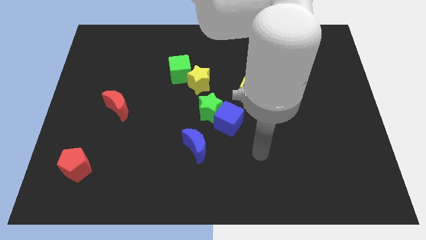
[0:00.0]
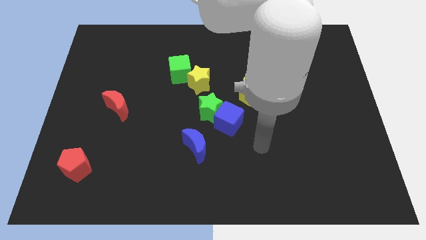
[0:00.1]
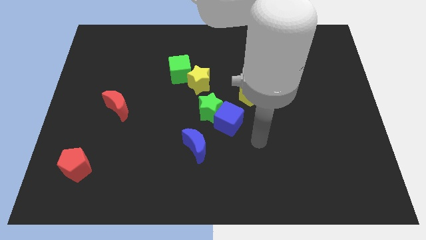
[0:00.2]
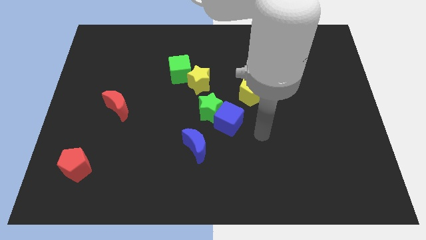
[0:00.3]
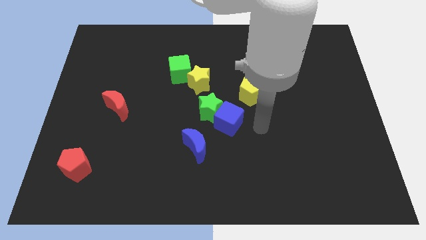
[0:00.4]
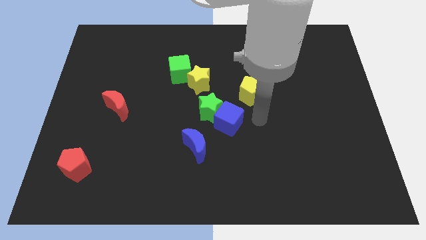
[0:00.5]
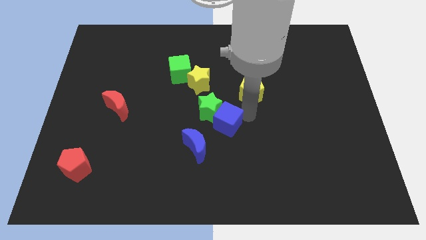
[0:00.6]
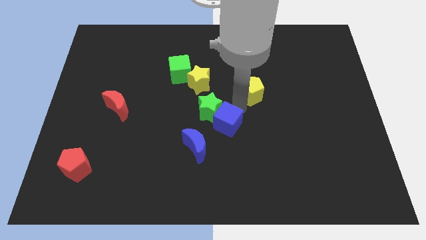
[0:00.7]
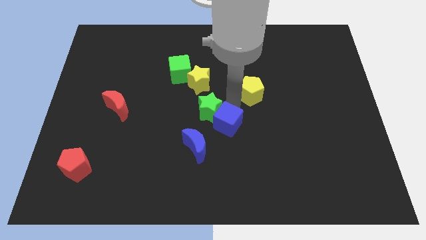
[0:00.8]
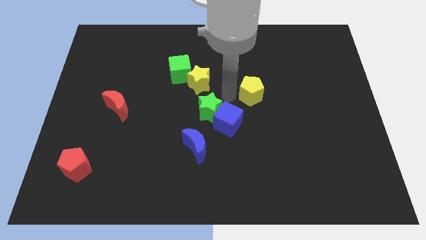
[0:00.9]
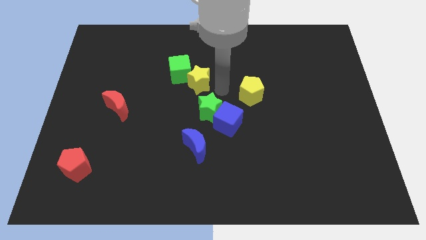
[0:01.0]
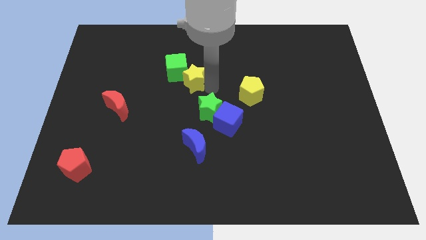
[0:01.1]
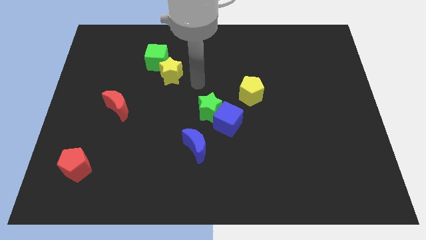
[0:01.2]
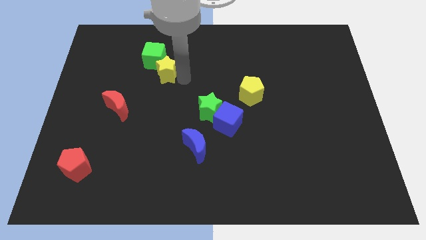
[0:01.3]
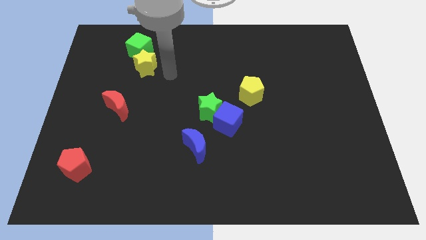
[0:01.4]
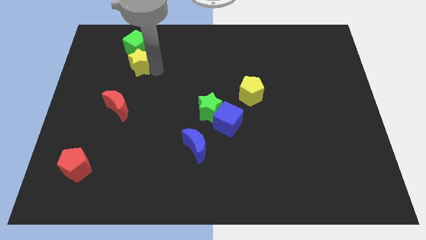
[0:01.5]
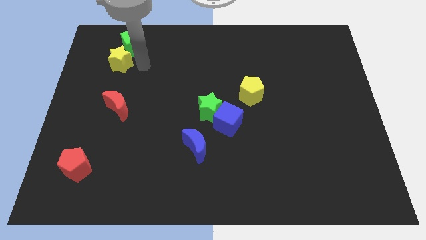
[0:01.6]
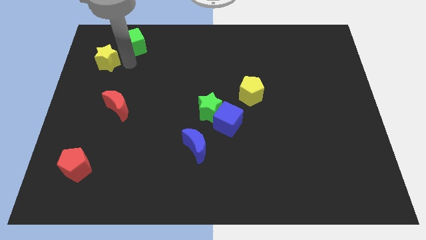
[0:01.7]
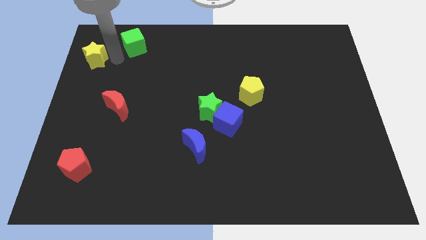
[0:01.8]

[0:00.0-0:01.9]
pull the green cube apart from the yellow star

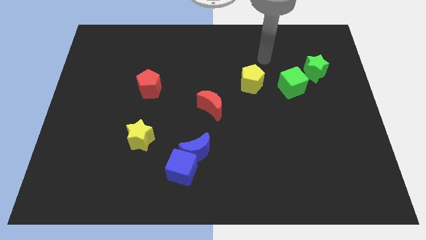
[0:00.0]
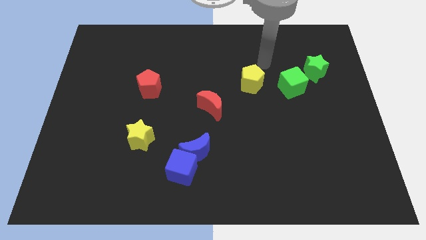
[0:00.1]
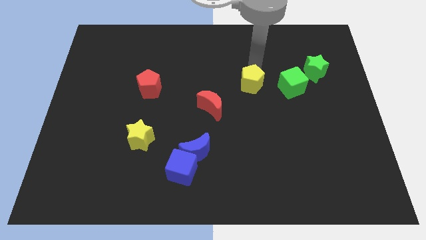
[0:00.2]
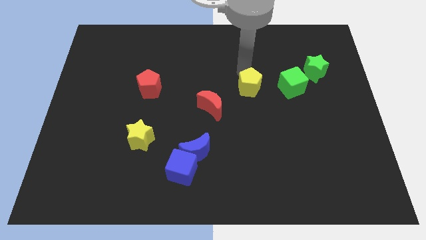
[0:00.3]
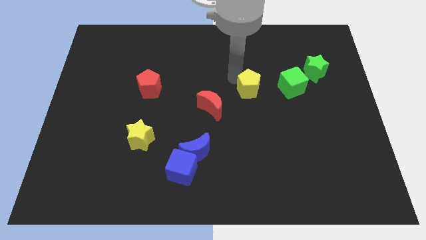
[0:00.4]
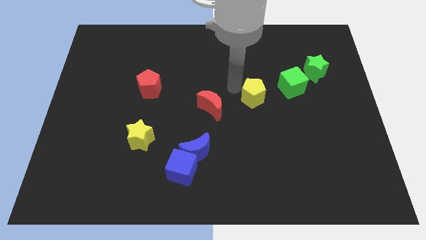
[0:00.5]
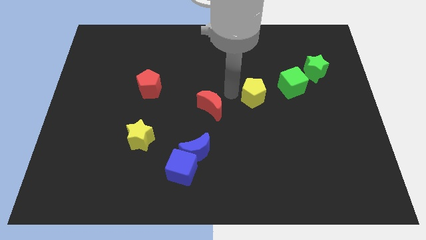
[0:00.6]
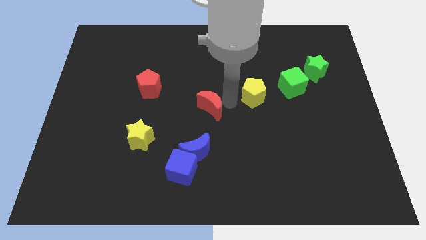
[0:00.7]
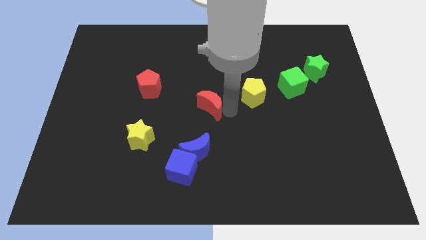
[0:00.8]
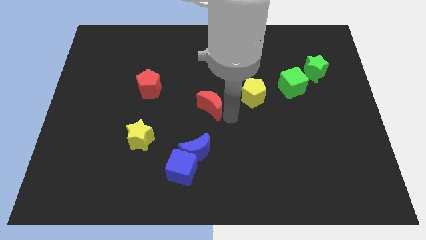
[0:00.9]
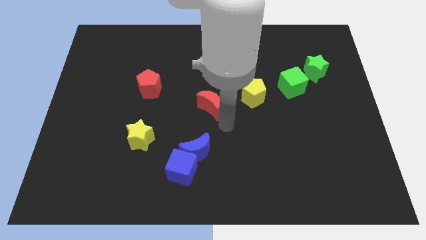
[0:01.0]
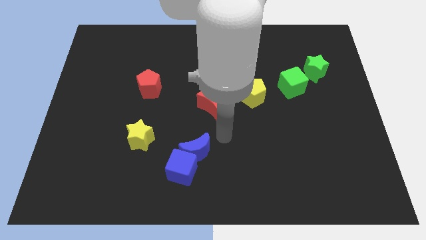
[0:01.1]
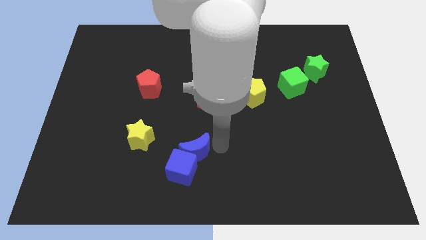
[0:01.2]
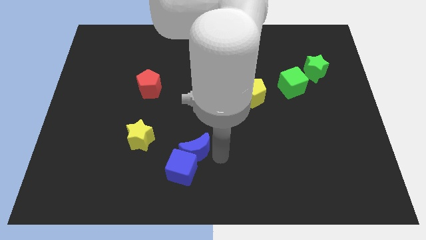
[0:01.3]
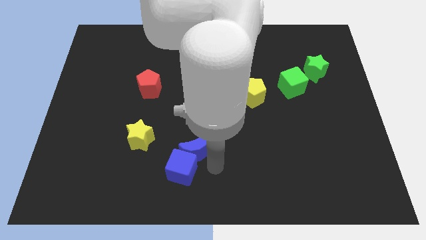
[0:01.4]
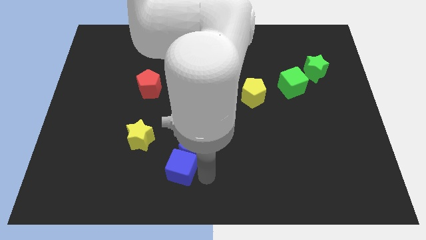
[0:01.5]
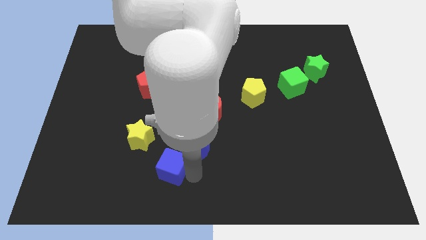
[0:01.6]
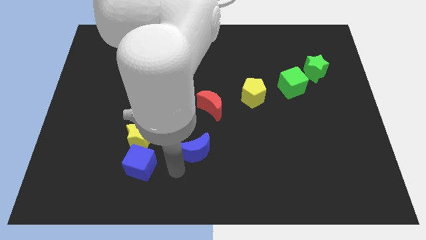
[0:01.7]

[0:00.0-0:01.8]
move the blue moon away from the blue cube

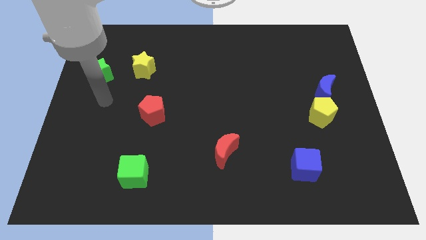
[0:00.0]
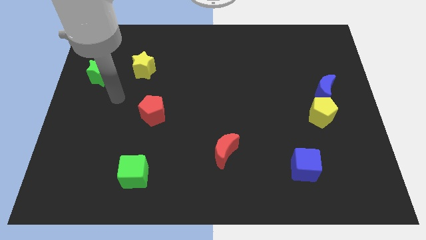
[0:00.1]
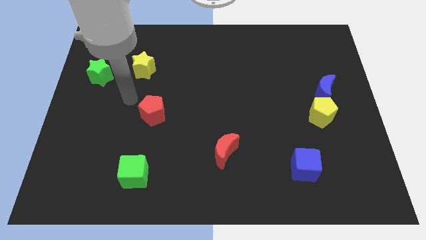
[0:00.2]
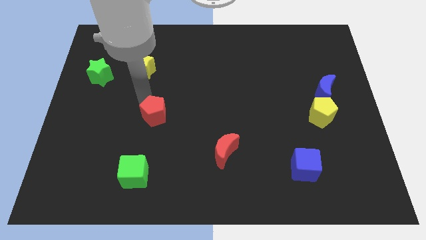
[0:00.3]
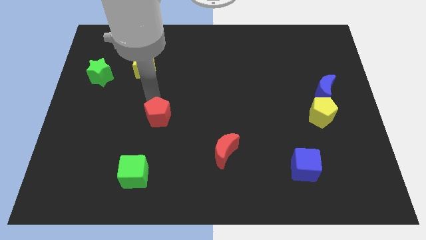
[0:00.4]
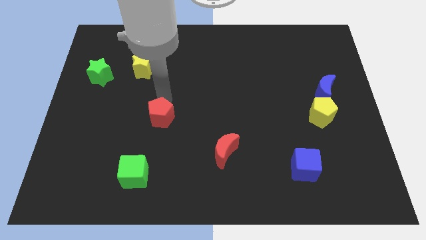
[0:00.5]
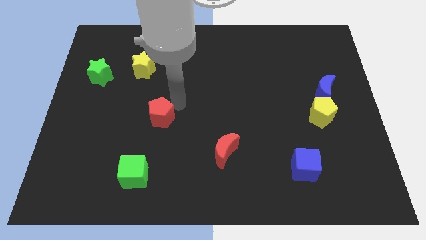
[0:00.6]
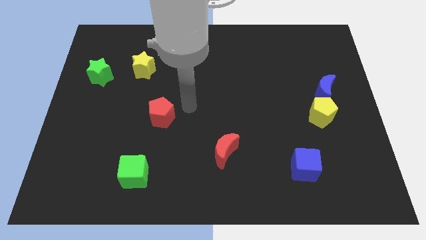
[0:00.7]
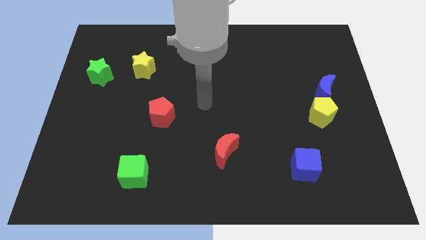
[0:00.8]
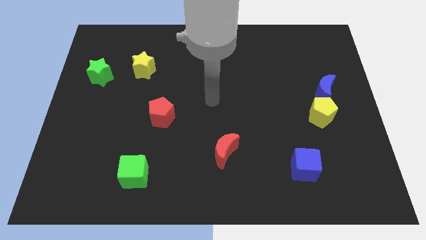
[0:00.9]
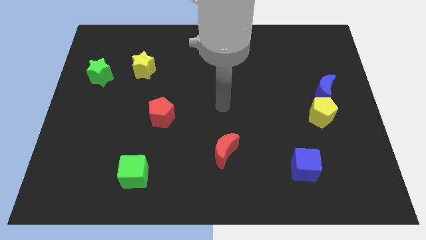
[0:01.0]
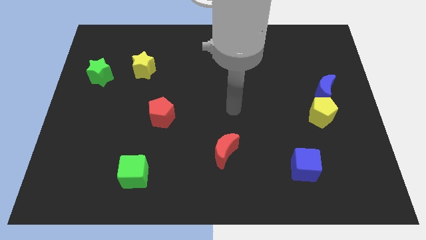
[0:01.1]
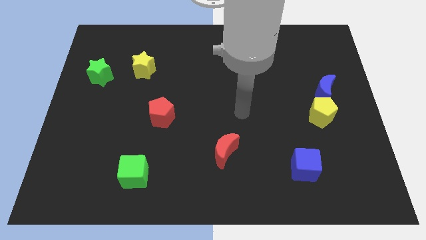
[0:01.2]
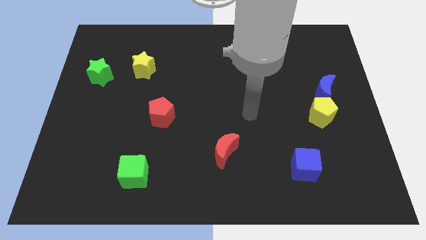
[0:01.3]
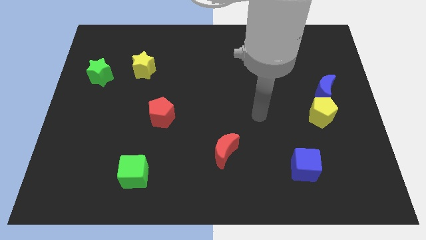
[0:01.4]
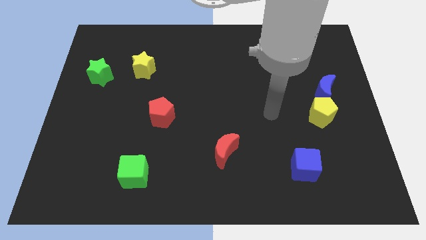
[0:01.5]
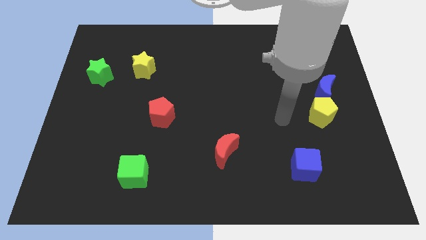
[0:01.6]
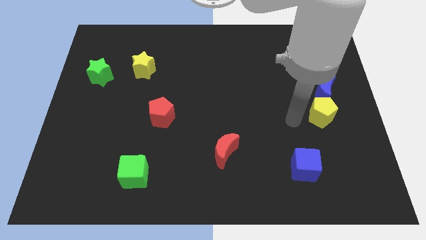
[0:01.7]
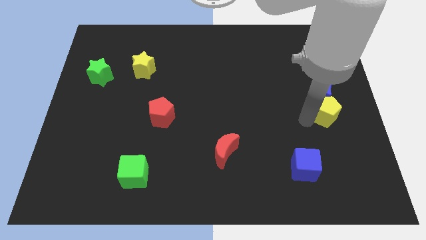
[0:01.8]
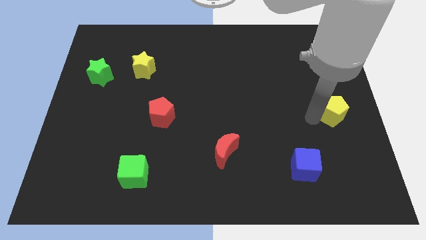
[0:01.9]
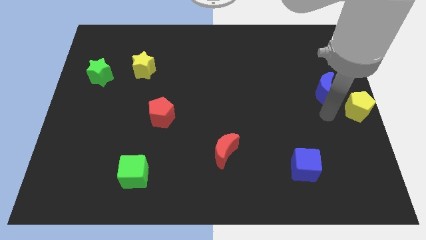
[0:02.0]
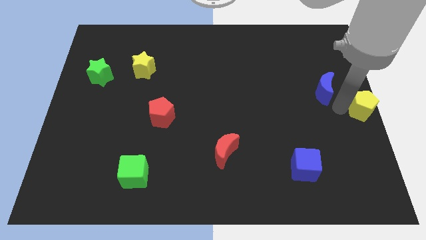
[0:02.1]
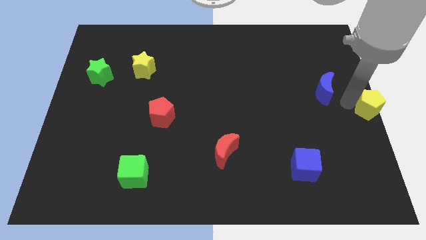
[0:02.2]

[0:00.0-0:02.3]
pull the blue moon apart from the yellow pentagon

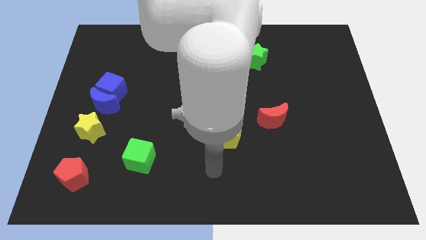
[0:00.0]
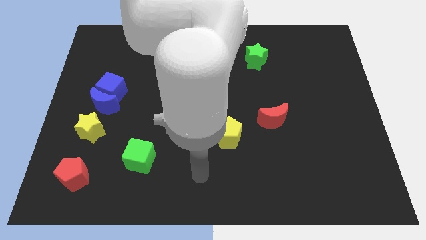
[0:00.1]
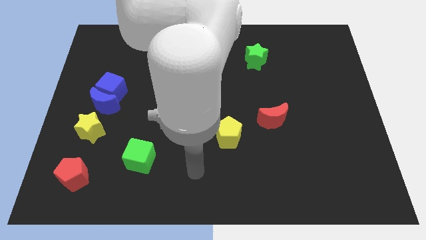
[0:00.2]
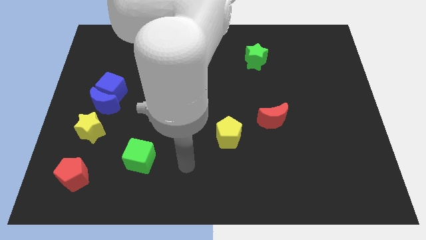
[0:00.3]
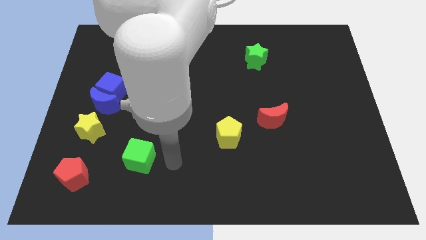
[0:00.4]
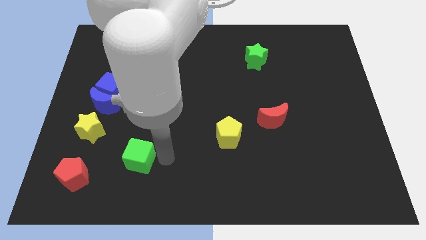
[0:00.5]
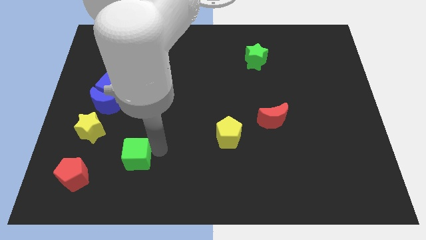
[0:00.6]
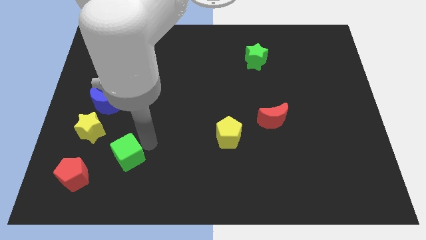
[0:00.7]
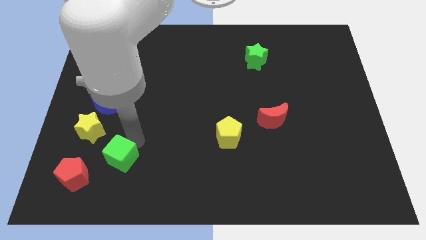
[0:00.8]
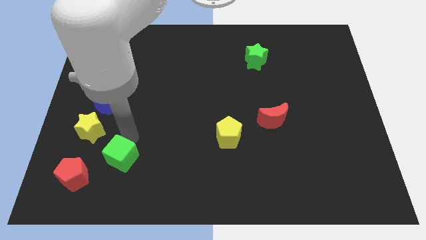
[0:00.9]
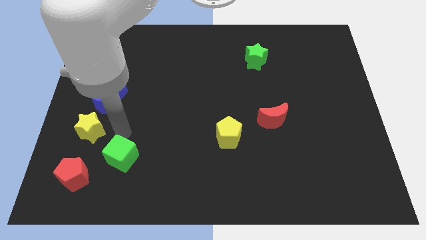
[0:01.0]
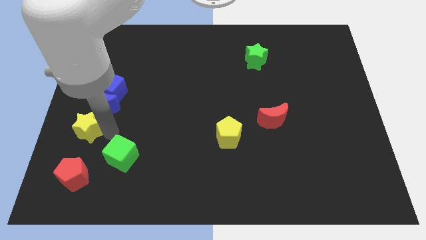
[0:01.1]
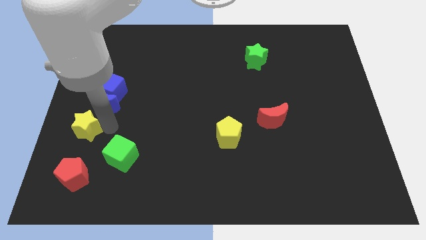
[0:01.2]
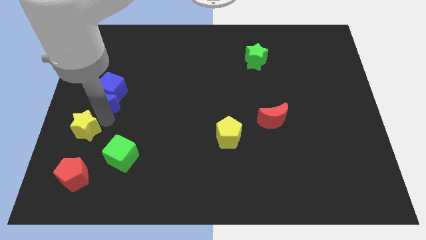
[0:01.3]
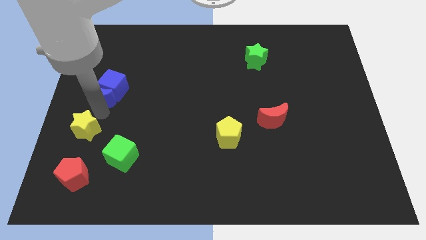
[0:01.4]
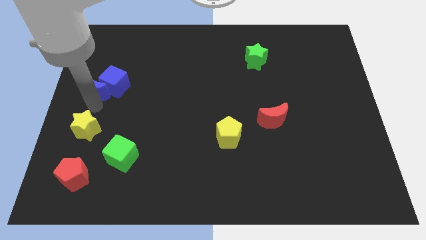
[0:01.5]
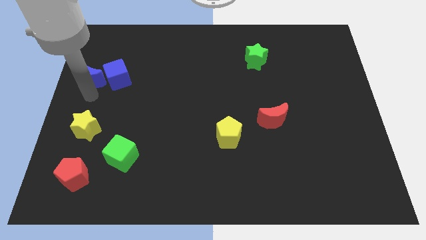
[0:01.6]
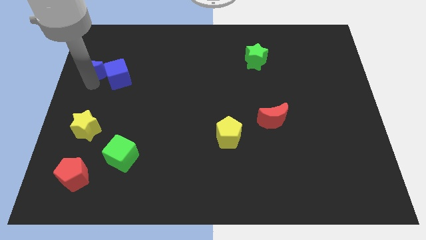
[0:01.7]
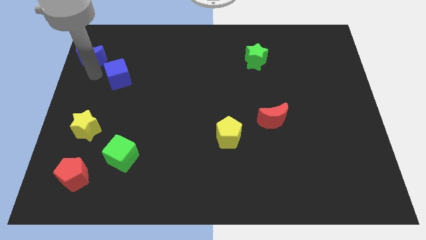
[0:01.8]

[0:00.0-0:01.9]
separate the blue cube from the blue moon

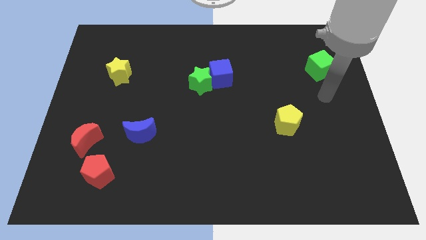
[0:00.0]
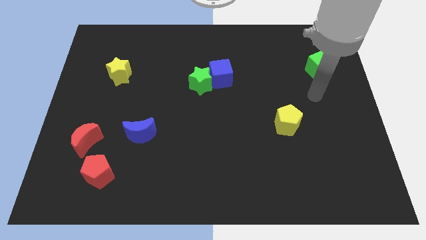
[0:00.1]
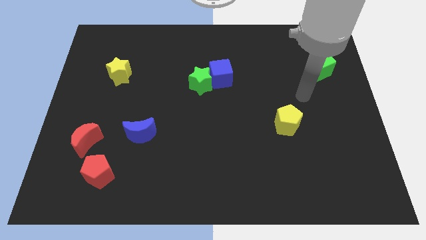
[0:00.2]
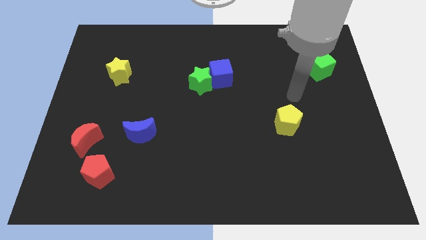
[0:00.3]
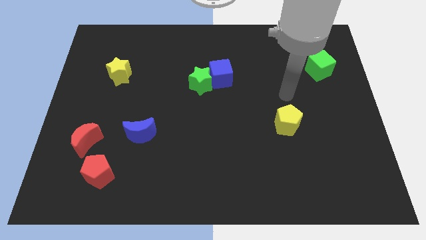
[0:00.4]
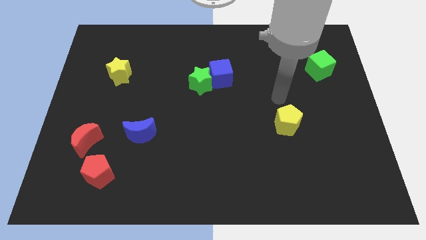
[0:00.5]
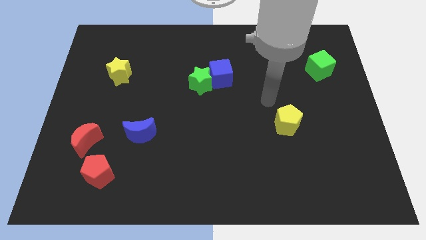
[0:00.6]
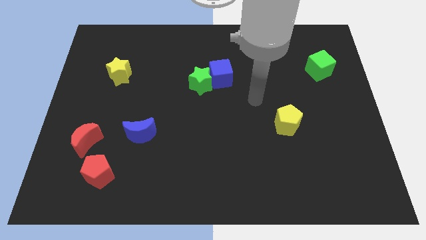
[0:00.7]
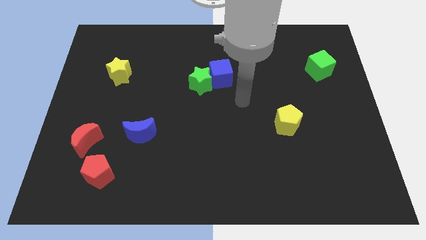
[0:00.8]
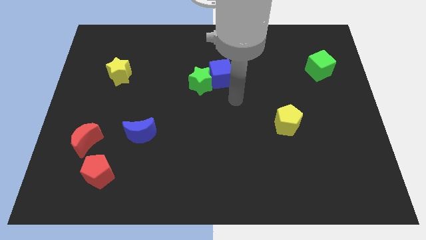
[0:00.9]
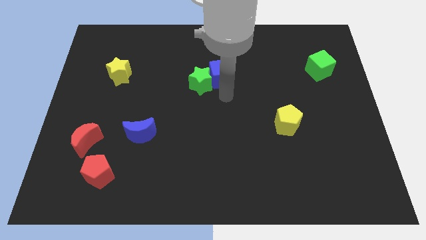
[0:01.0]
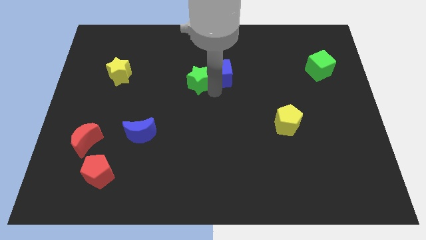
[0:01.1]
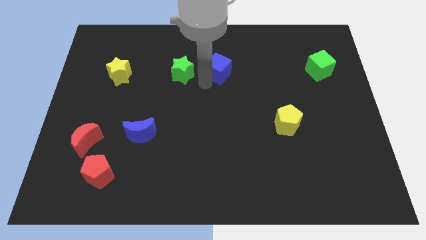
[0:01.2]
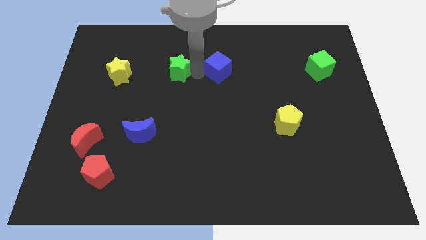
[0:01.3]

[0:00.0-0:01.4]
separate the blue cube from the green star
